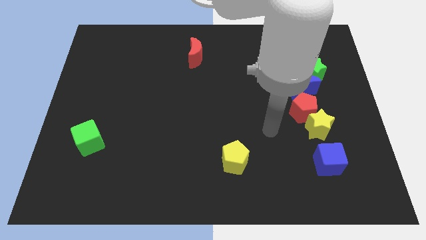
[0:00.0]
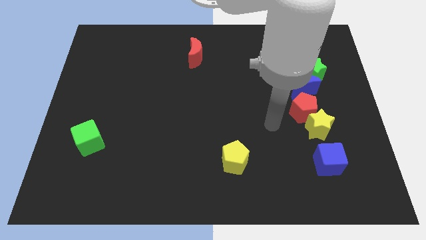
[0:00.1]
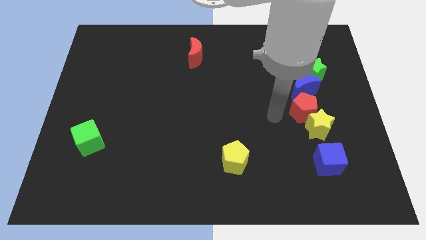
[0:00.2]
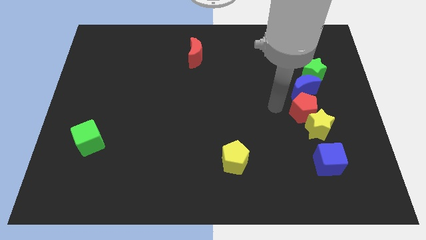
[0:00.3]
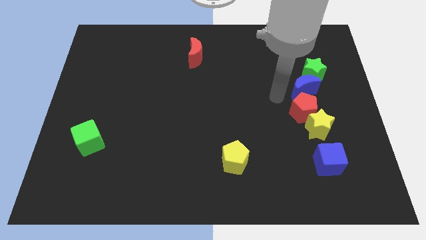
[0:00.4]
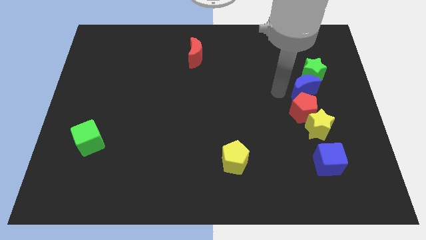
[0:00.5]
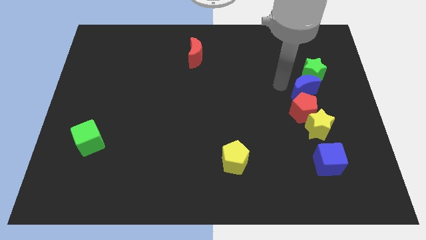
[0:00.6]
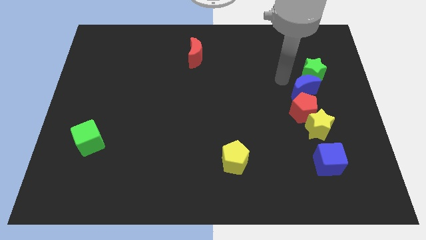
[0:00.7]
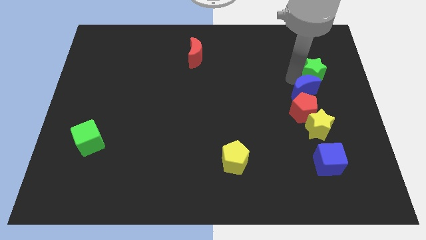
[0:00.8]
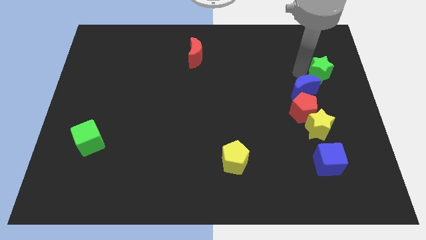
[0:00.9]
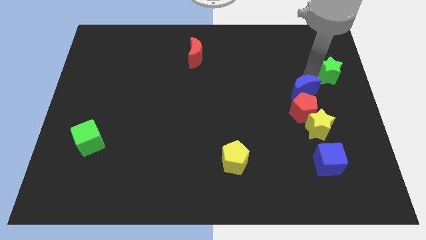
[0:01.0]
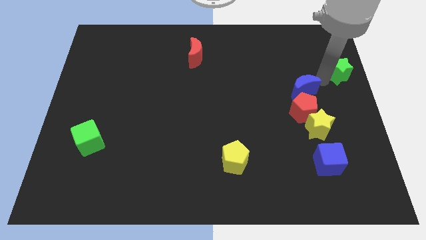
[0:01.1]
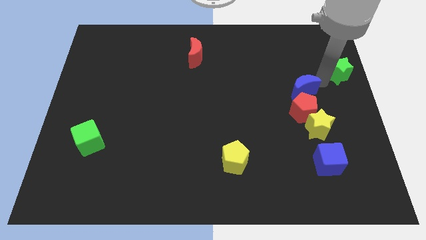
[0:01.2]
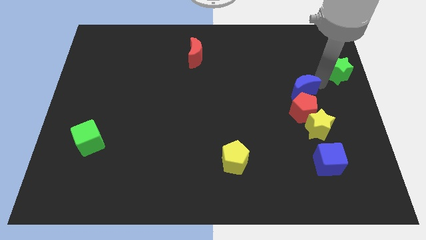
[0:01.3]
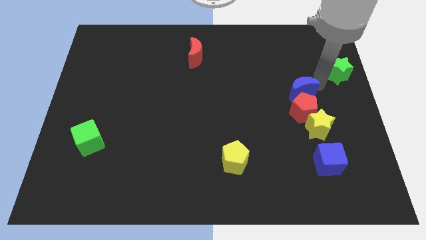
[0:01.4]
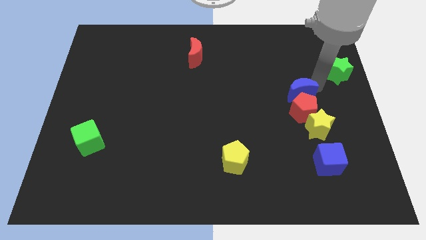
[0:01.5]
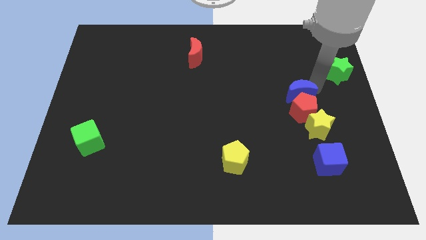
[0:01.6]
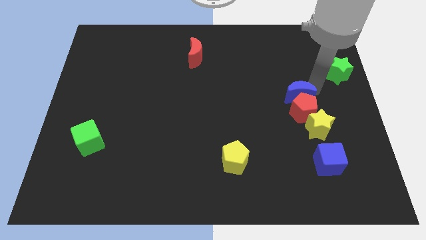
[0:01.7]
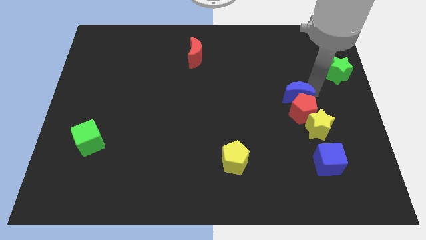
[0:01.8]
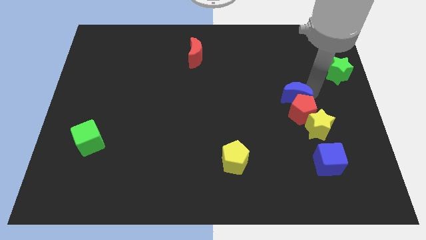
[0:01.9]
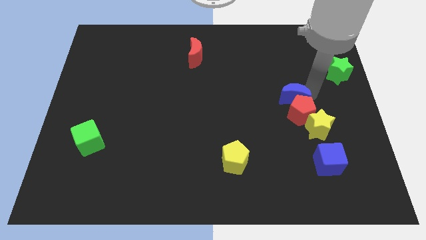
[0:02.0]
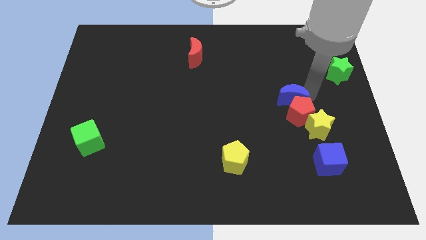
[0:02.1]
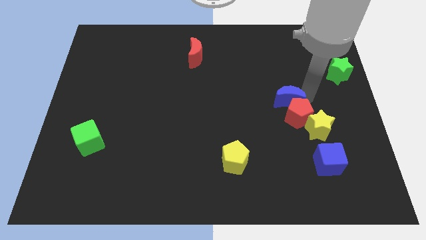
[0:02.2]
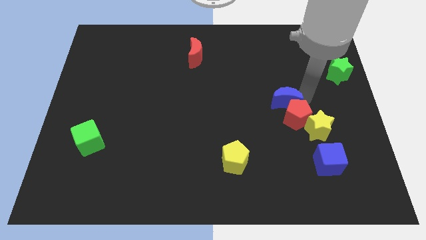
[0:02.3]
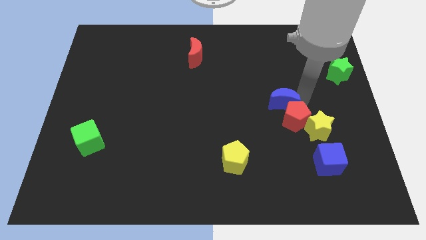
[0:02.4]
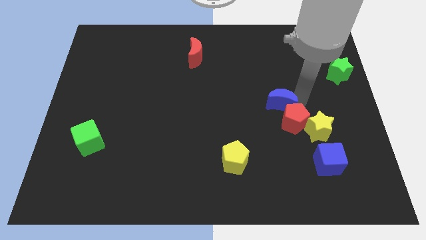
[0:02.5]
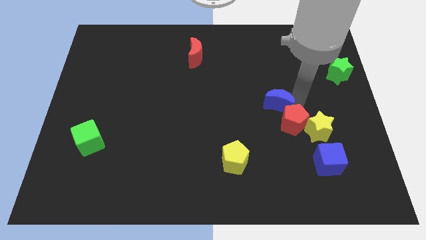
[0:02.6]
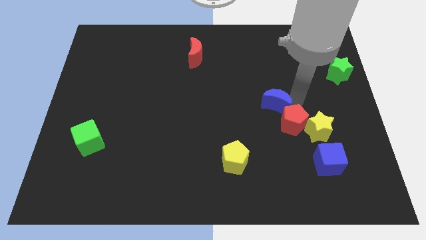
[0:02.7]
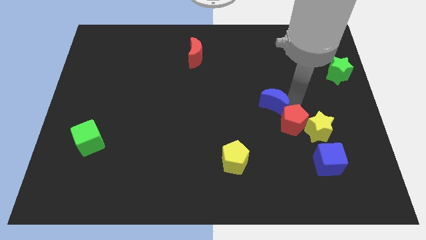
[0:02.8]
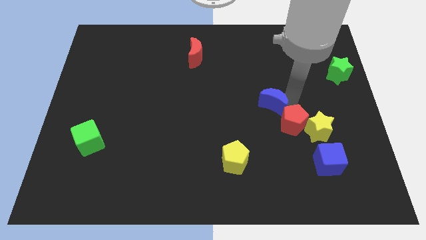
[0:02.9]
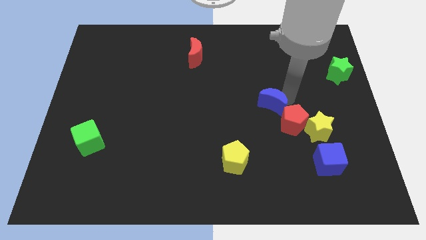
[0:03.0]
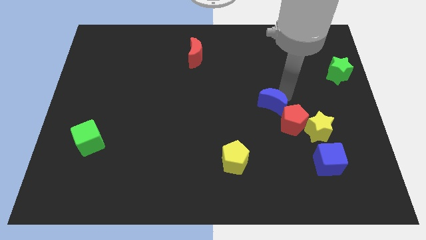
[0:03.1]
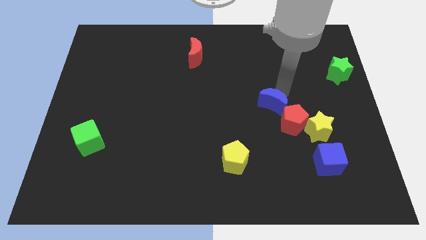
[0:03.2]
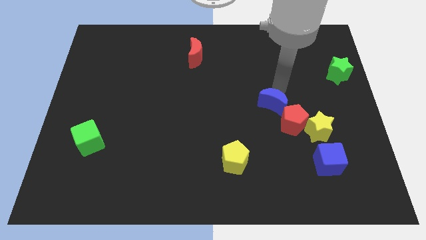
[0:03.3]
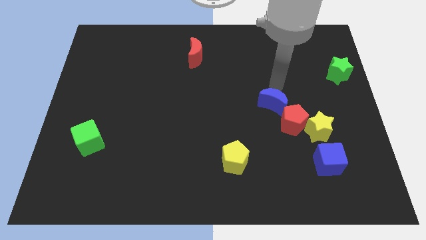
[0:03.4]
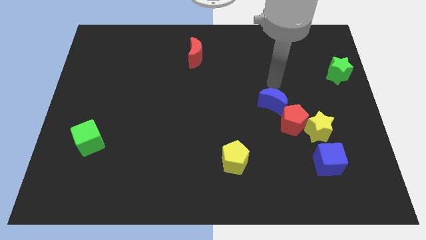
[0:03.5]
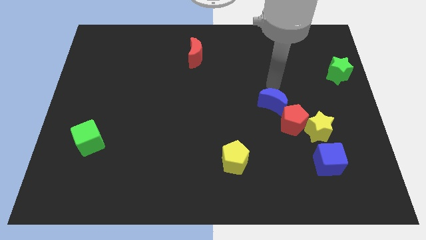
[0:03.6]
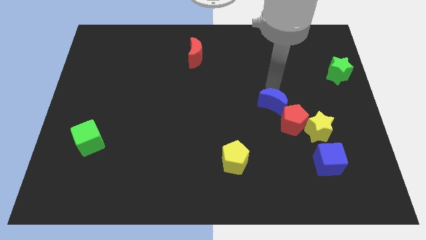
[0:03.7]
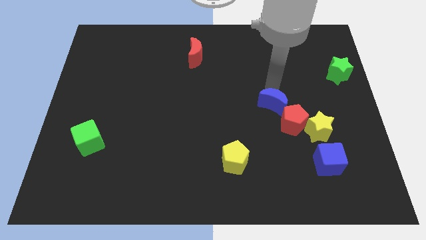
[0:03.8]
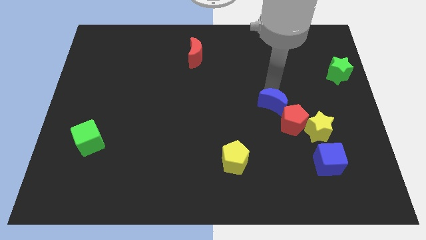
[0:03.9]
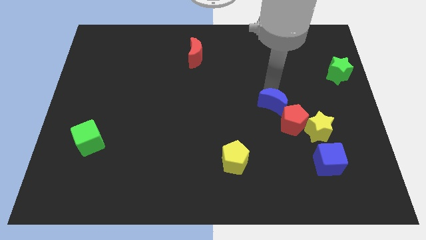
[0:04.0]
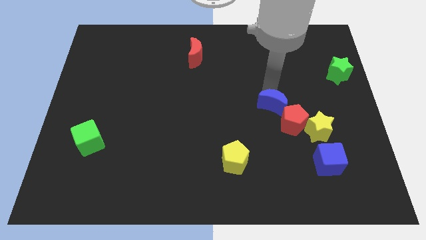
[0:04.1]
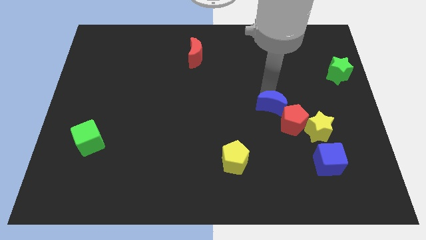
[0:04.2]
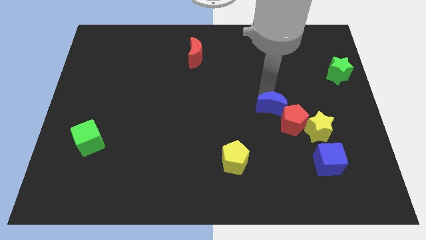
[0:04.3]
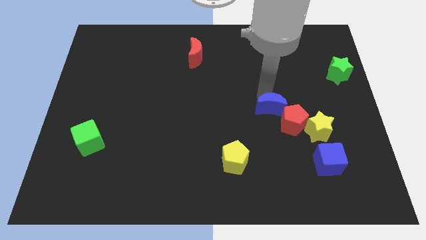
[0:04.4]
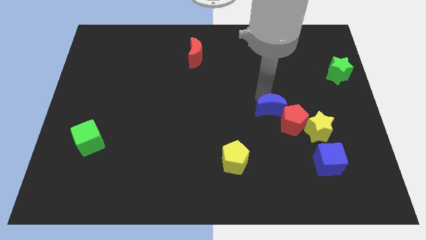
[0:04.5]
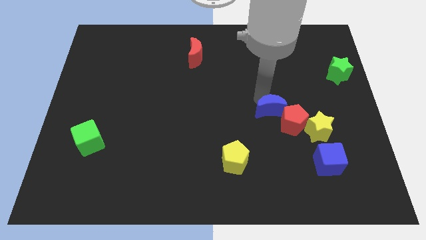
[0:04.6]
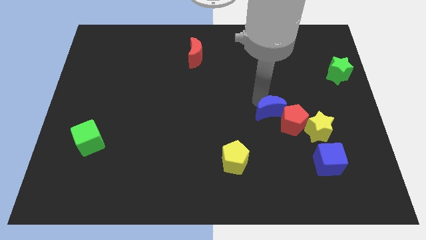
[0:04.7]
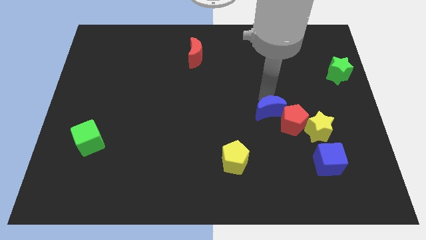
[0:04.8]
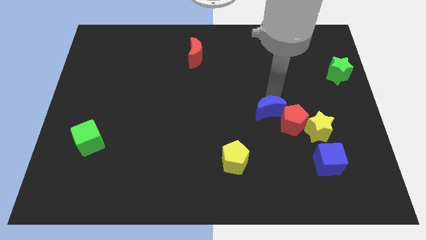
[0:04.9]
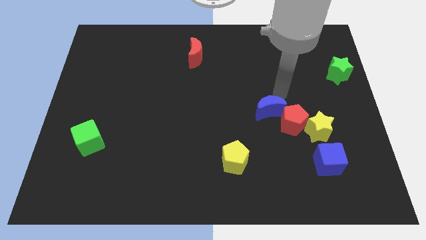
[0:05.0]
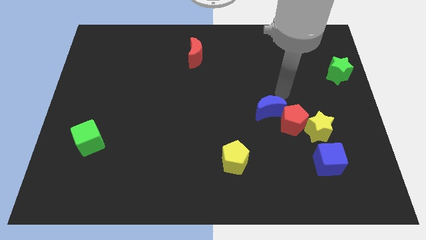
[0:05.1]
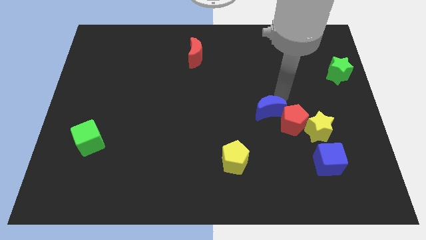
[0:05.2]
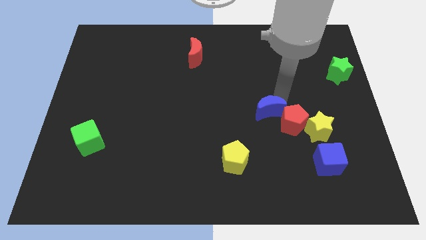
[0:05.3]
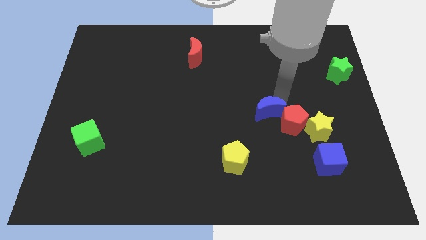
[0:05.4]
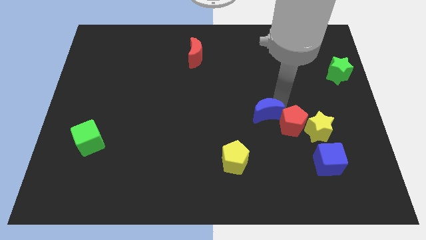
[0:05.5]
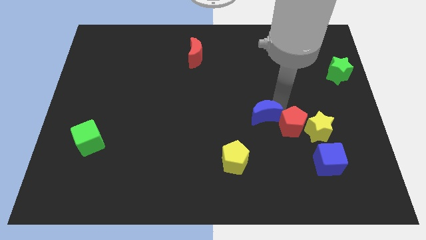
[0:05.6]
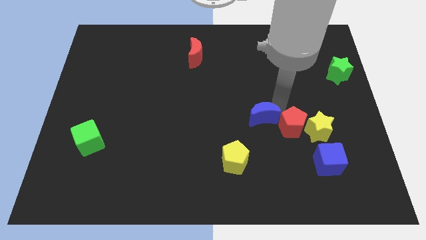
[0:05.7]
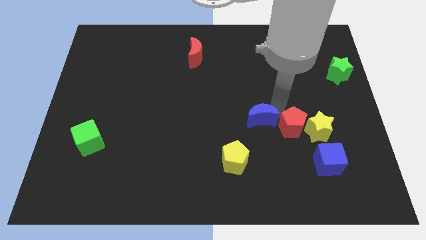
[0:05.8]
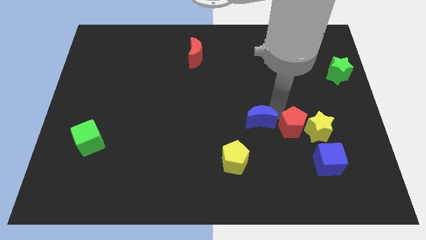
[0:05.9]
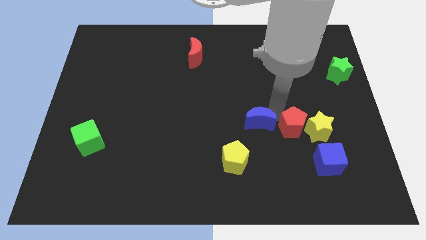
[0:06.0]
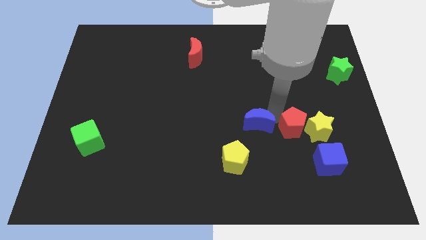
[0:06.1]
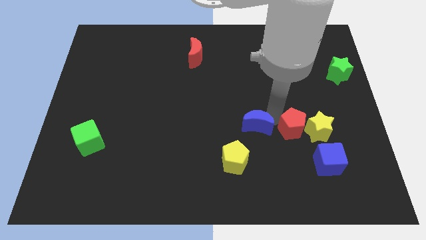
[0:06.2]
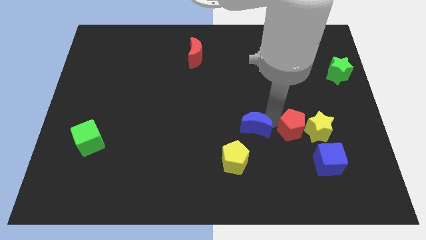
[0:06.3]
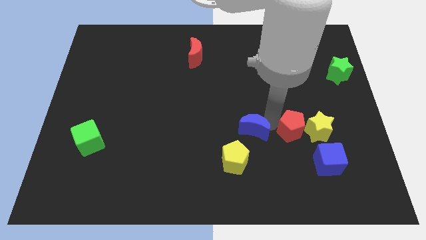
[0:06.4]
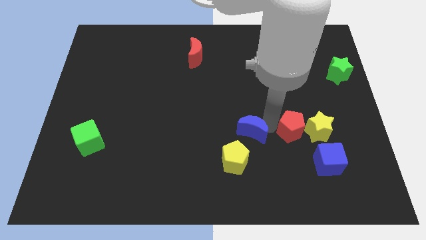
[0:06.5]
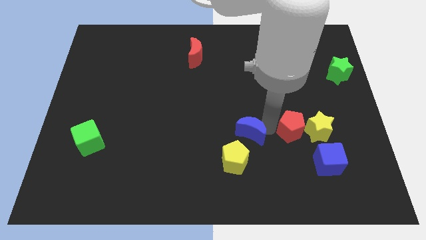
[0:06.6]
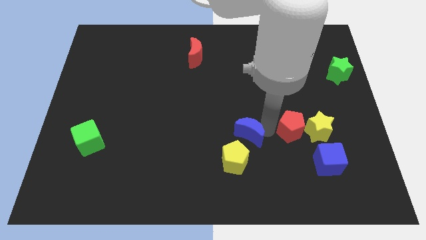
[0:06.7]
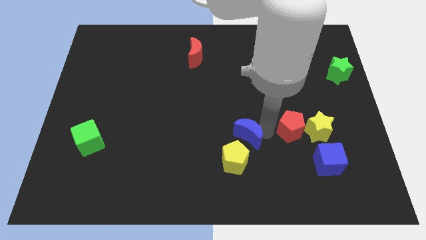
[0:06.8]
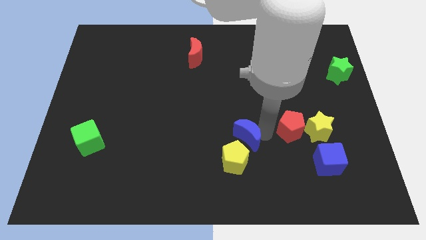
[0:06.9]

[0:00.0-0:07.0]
move the blue moon diagonally downwards and left

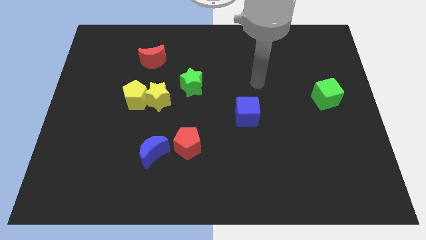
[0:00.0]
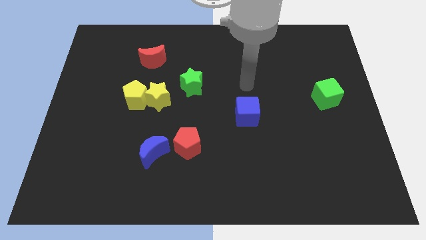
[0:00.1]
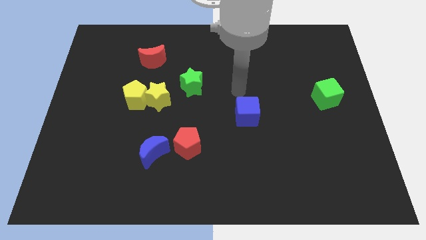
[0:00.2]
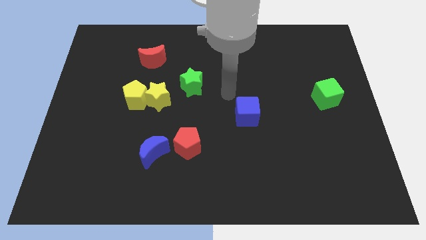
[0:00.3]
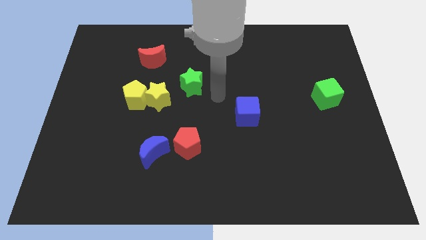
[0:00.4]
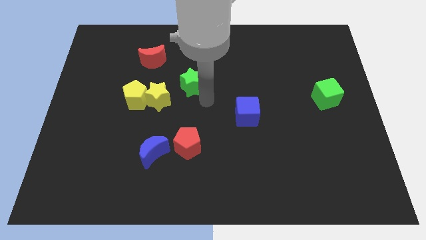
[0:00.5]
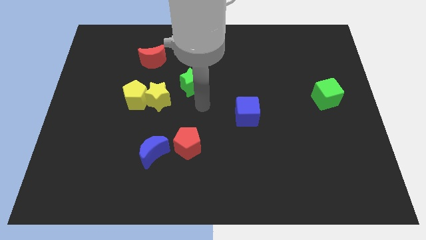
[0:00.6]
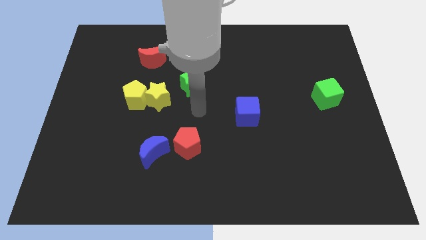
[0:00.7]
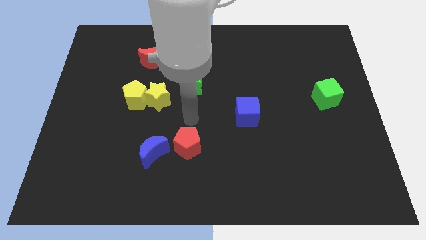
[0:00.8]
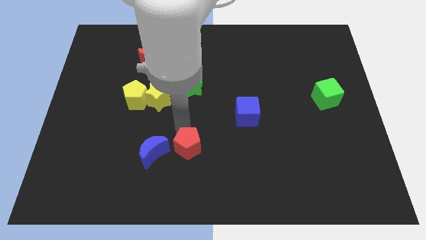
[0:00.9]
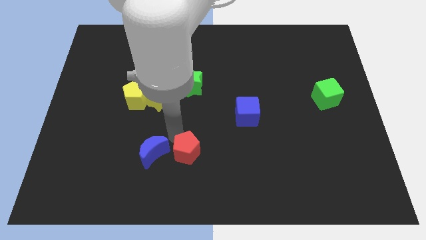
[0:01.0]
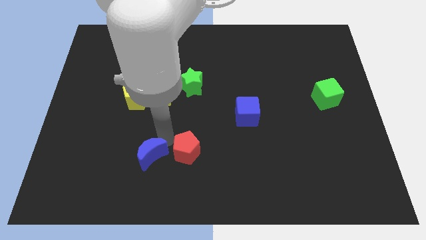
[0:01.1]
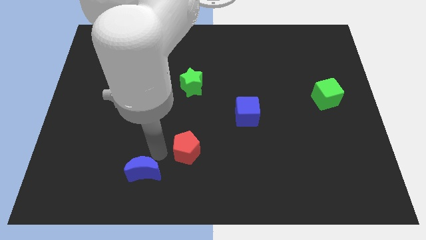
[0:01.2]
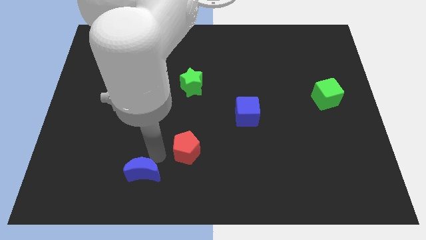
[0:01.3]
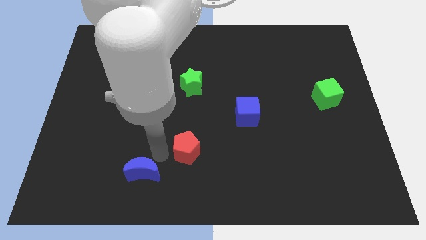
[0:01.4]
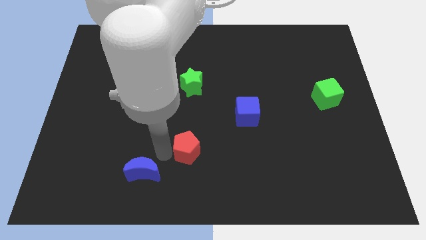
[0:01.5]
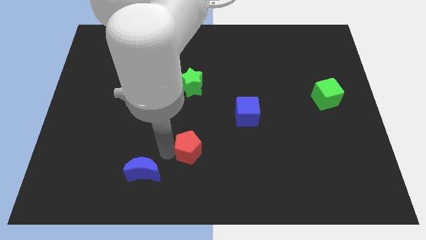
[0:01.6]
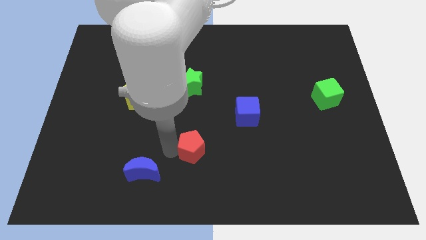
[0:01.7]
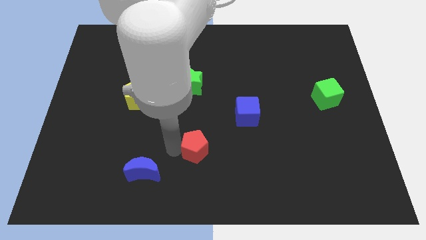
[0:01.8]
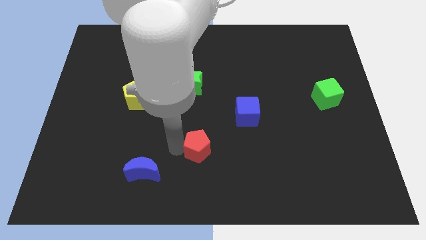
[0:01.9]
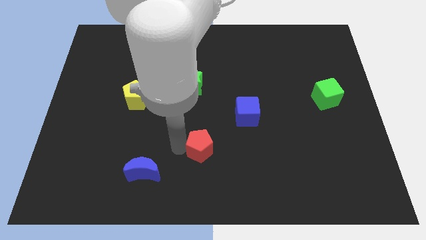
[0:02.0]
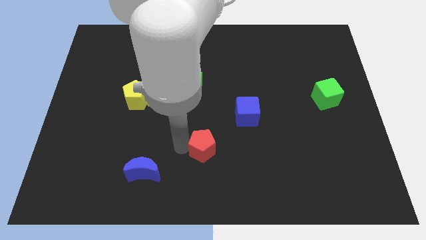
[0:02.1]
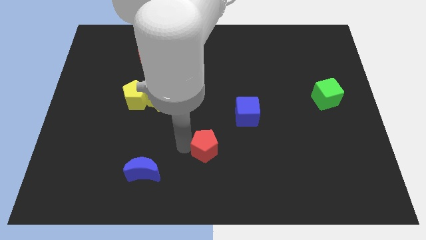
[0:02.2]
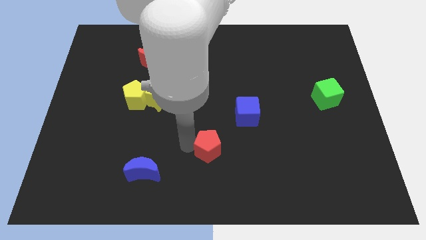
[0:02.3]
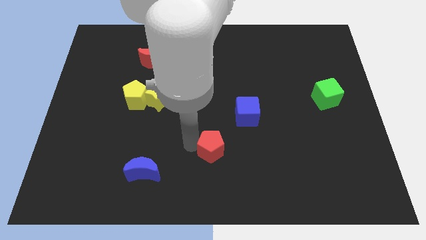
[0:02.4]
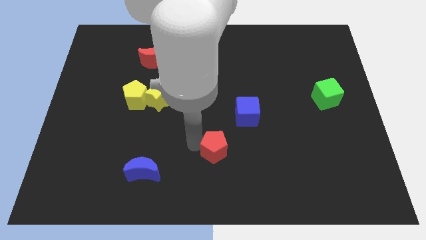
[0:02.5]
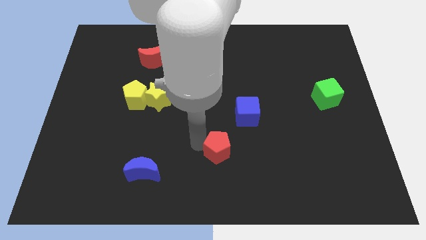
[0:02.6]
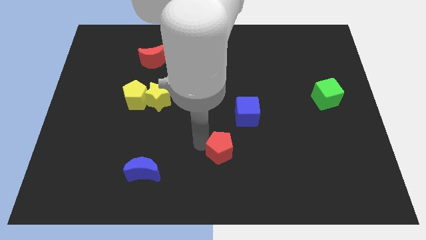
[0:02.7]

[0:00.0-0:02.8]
push the red pentagon slightly right
